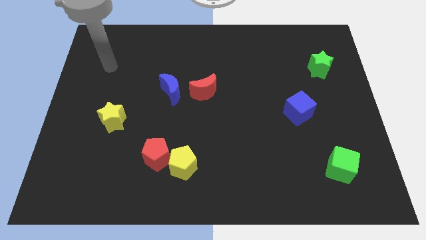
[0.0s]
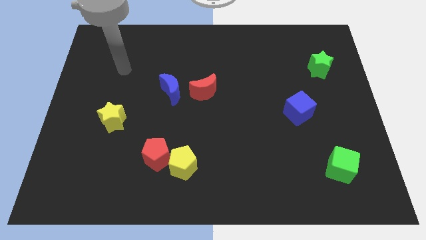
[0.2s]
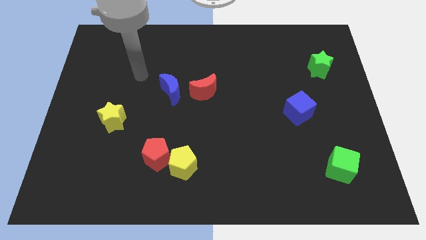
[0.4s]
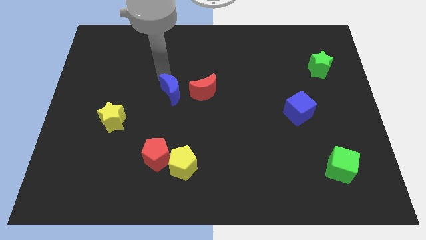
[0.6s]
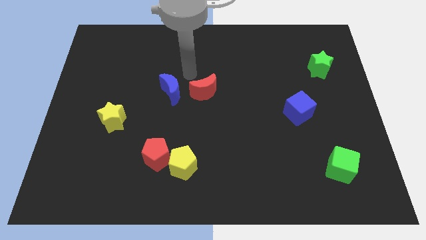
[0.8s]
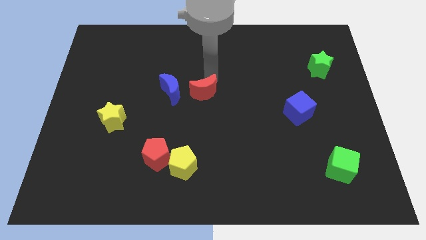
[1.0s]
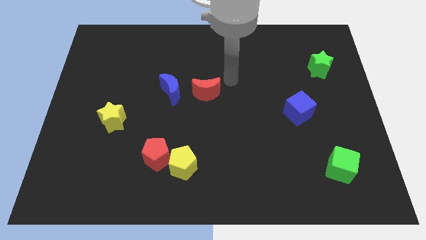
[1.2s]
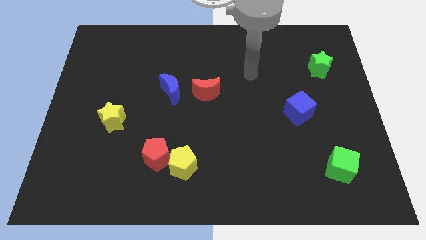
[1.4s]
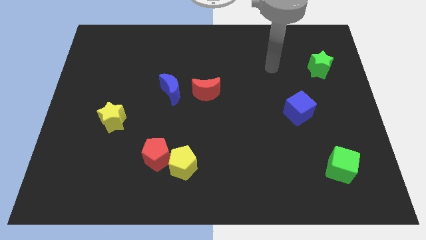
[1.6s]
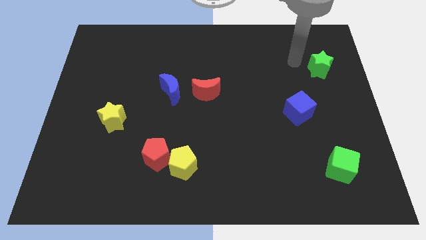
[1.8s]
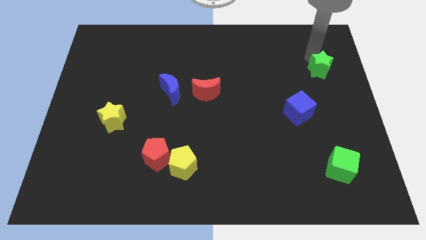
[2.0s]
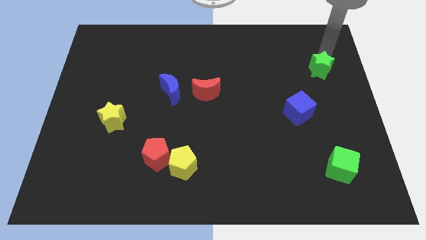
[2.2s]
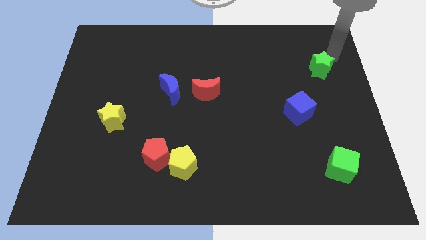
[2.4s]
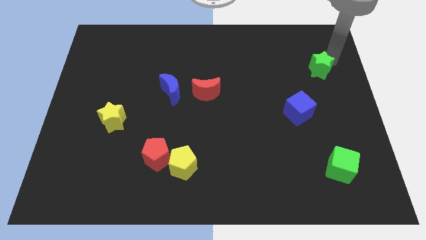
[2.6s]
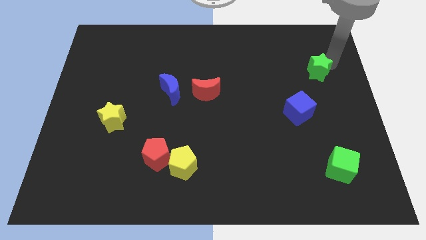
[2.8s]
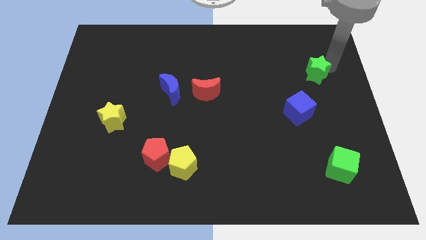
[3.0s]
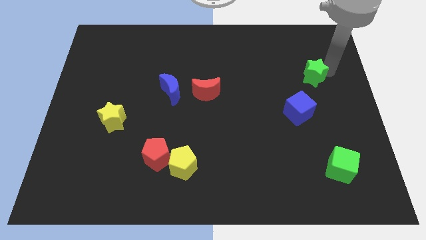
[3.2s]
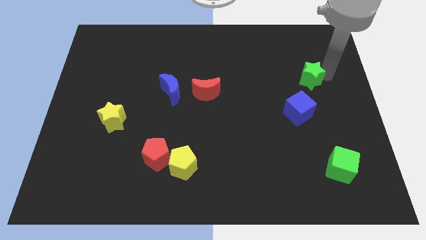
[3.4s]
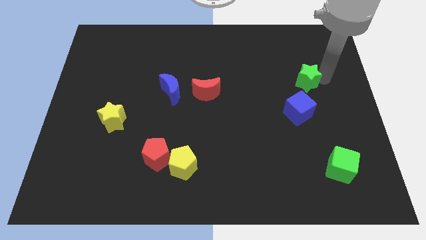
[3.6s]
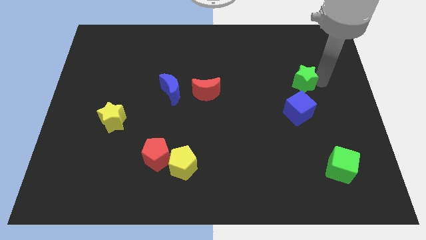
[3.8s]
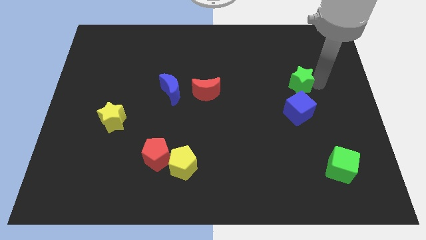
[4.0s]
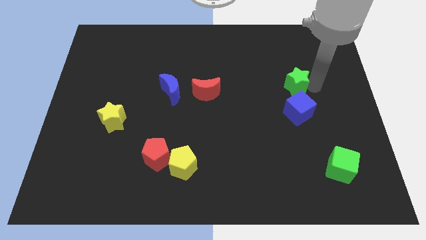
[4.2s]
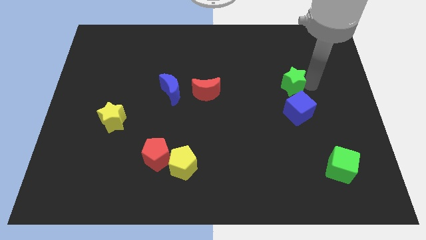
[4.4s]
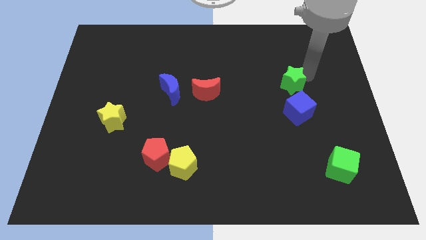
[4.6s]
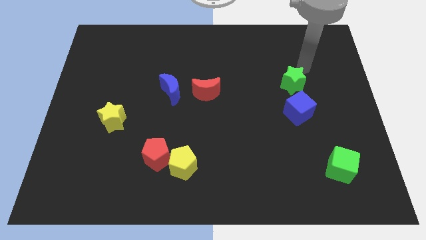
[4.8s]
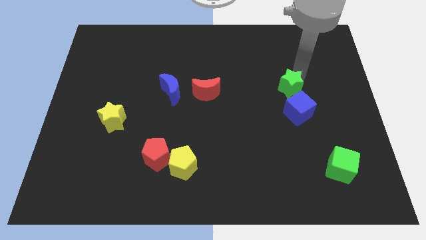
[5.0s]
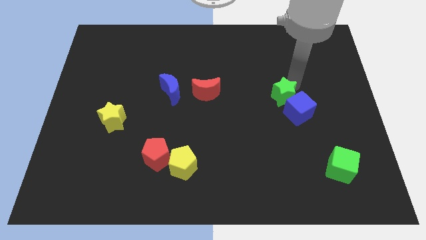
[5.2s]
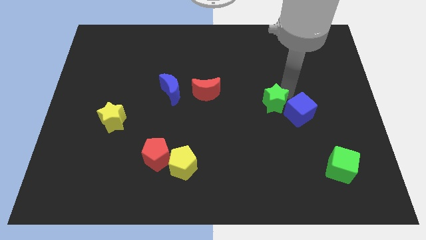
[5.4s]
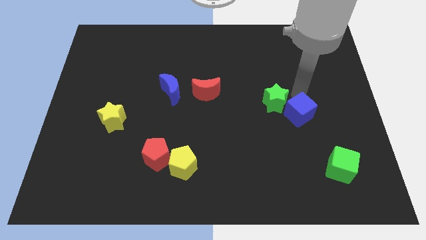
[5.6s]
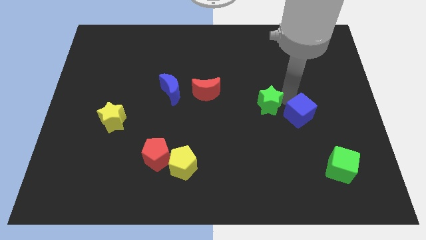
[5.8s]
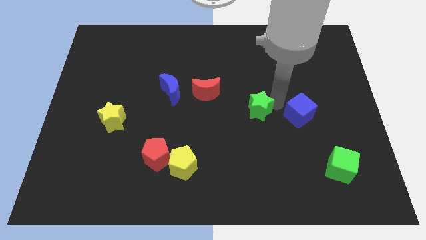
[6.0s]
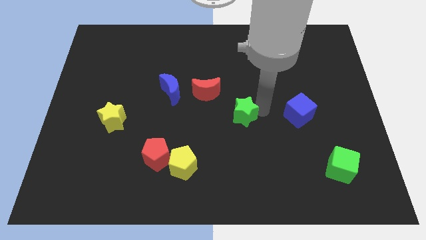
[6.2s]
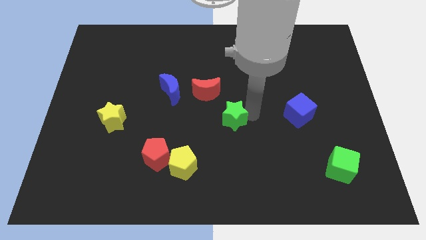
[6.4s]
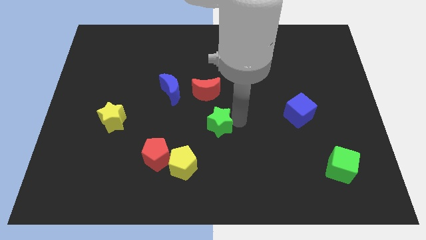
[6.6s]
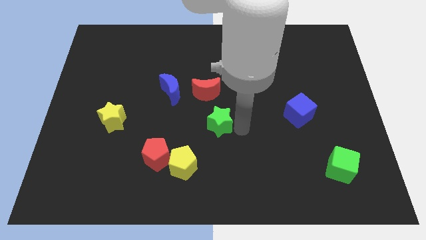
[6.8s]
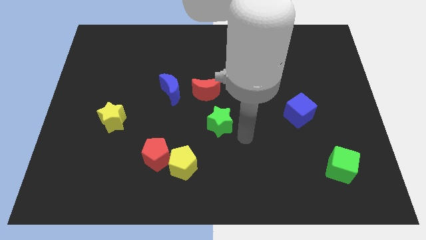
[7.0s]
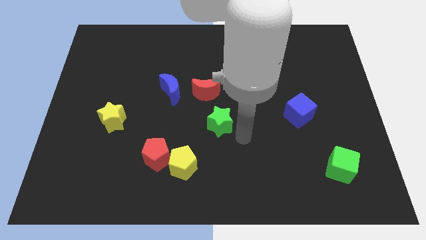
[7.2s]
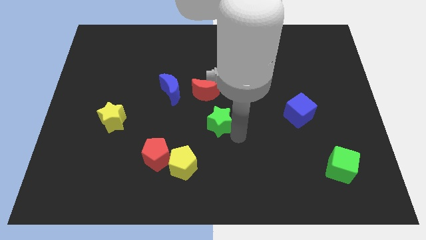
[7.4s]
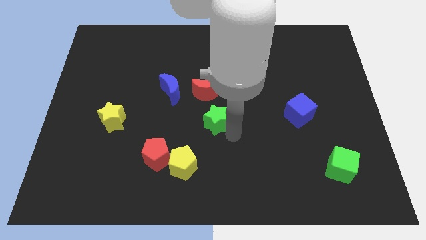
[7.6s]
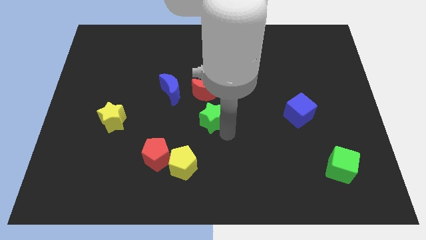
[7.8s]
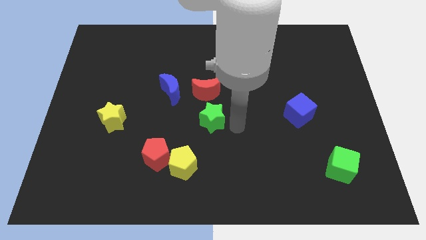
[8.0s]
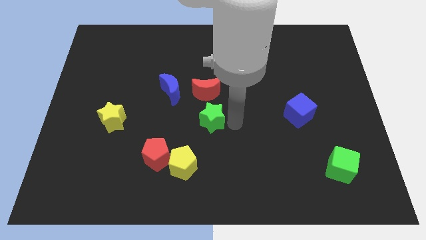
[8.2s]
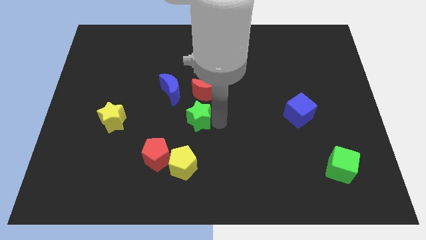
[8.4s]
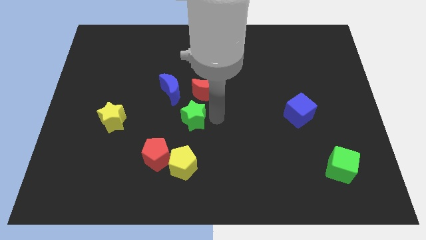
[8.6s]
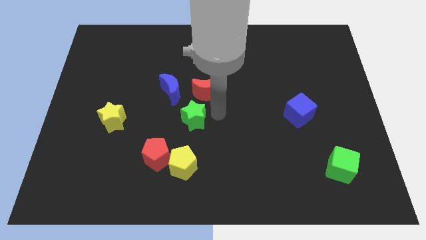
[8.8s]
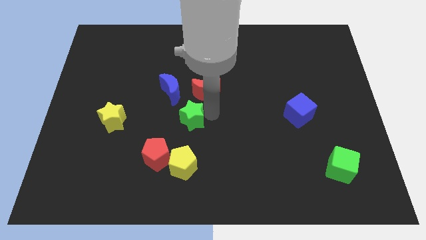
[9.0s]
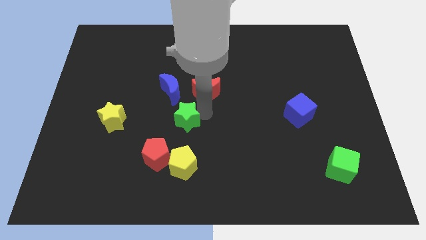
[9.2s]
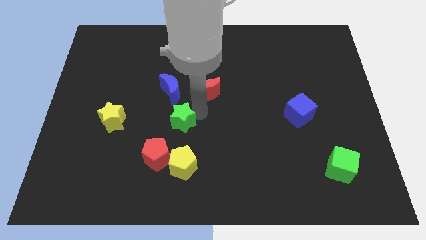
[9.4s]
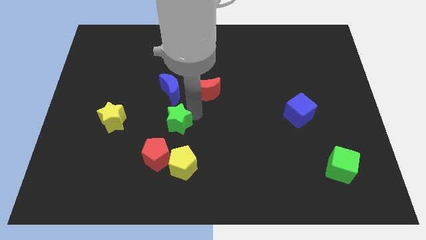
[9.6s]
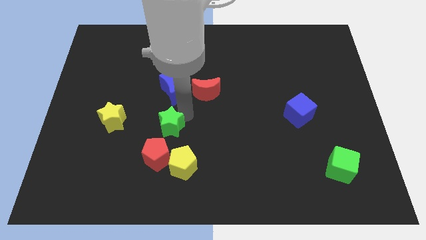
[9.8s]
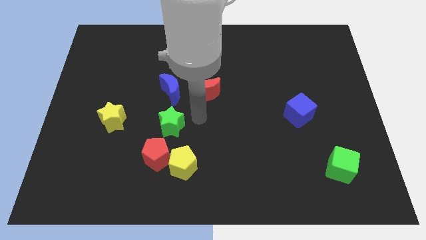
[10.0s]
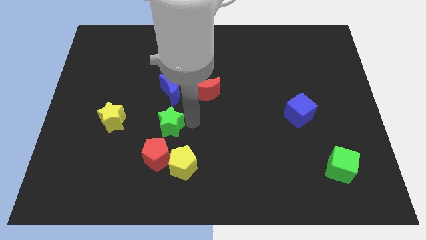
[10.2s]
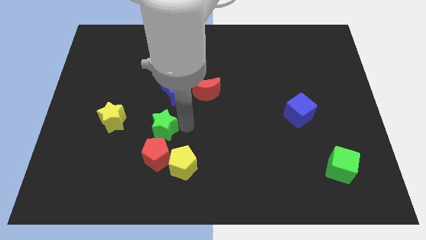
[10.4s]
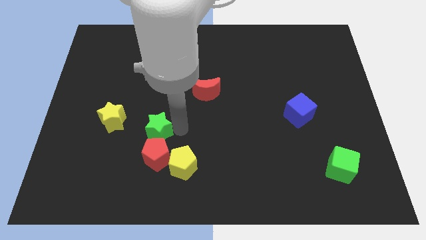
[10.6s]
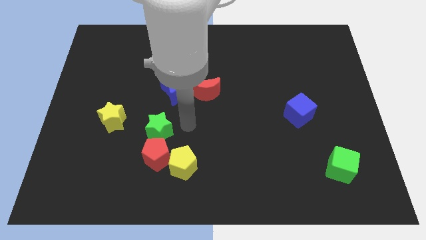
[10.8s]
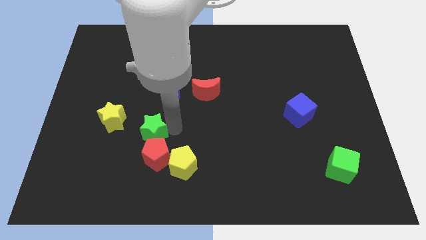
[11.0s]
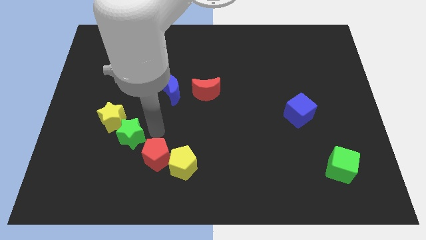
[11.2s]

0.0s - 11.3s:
put the green star to the bottom of the yellow star

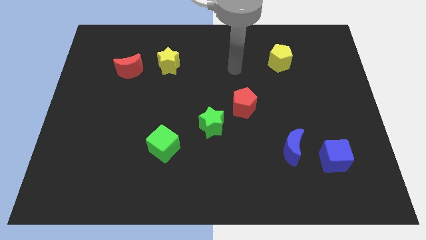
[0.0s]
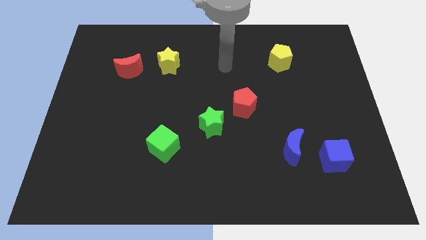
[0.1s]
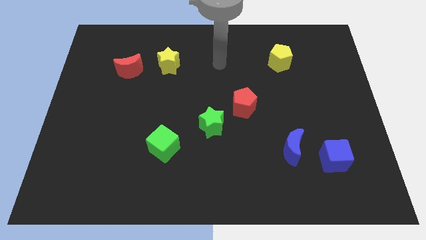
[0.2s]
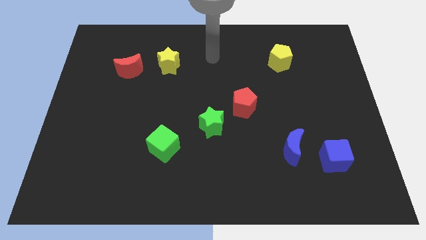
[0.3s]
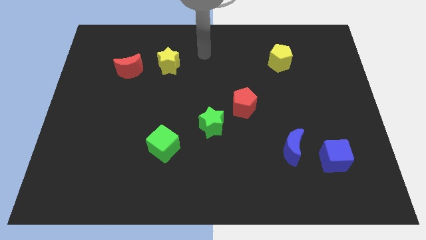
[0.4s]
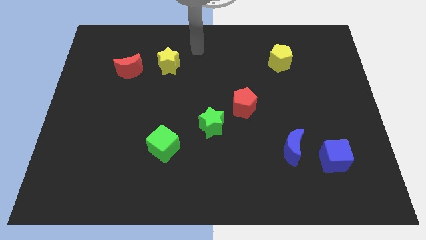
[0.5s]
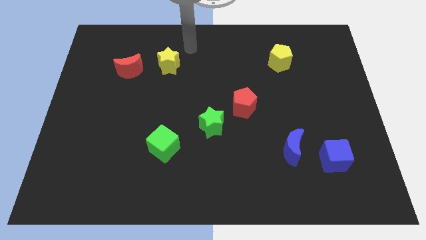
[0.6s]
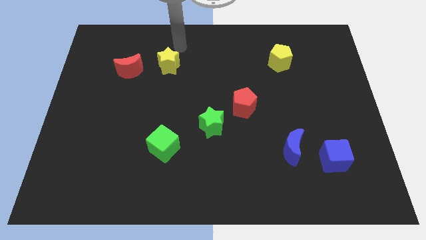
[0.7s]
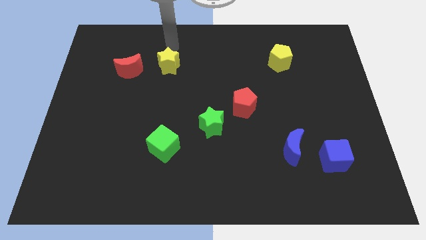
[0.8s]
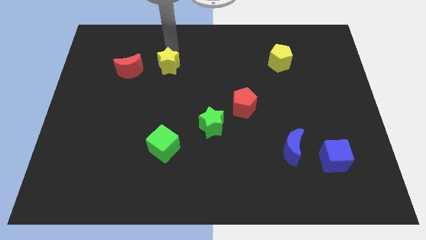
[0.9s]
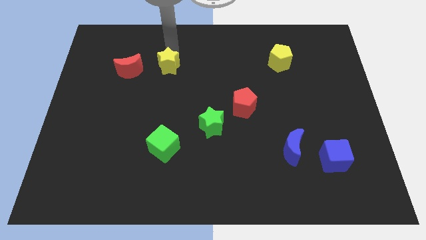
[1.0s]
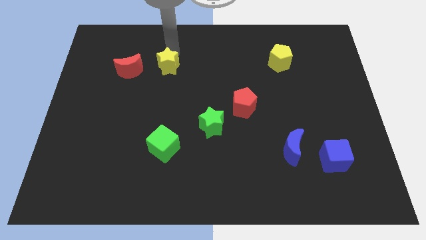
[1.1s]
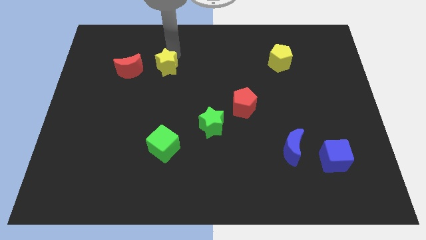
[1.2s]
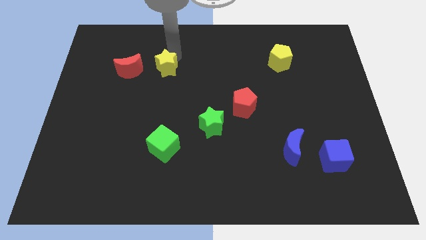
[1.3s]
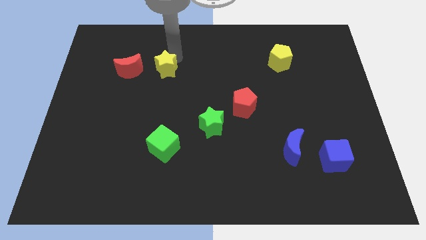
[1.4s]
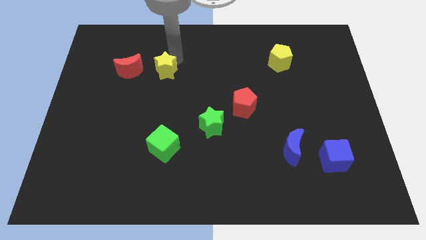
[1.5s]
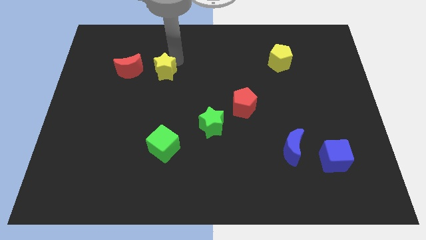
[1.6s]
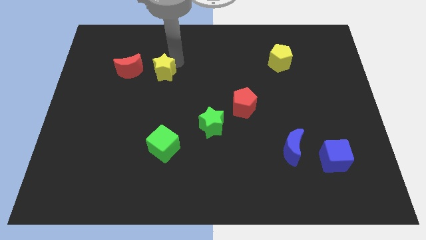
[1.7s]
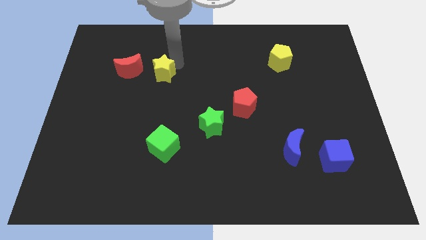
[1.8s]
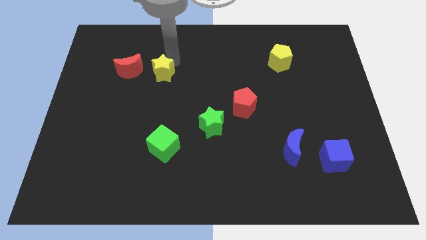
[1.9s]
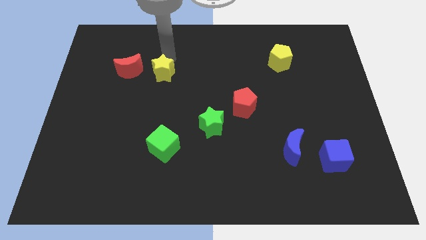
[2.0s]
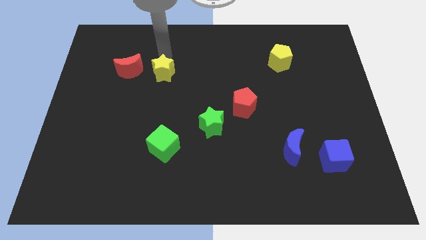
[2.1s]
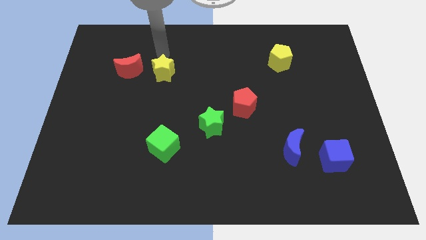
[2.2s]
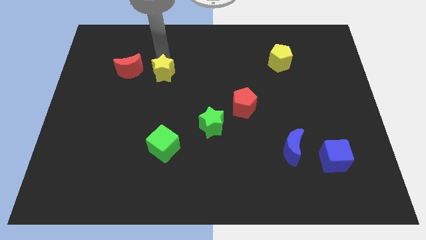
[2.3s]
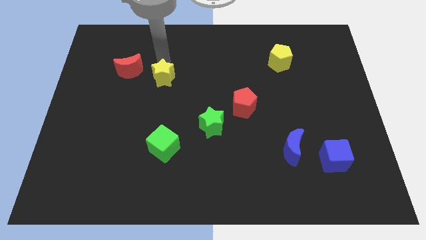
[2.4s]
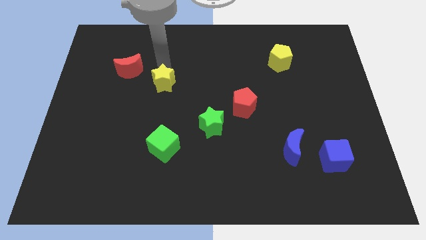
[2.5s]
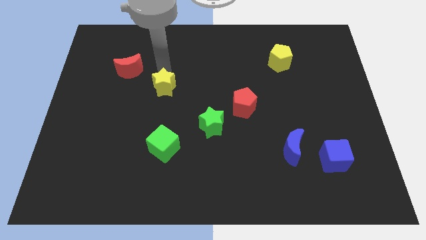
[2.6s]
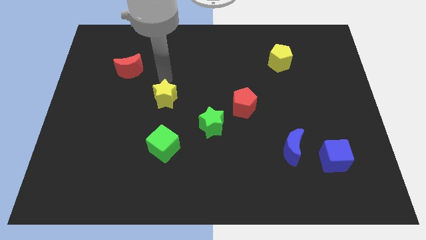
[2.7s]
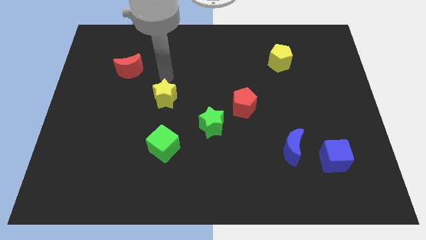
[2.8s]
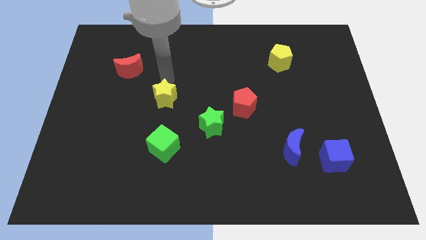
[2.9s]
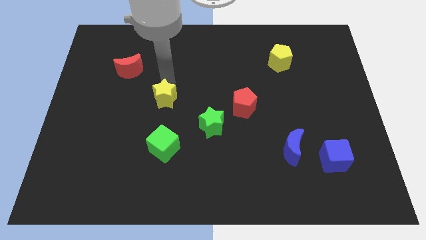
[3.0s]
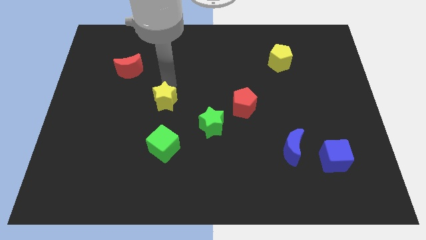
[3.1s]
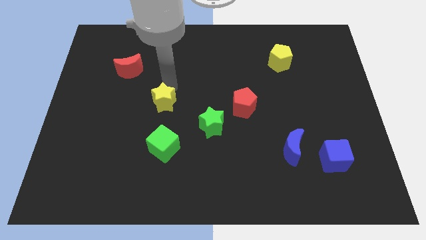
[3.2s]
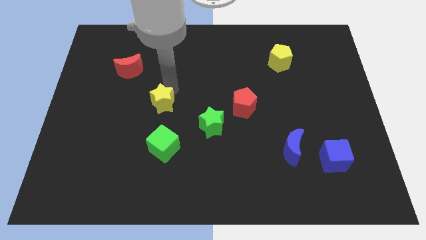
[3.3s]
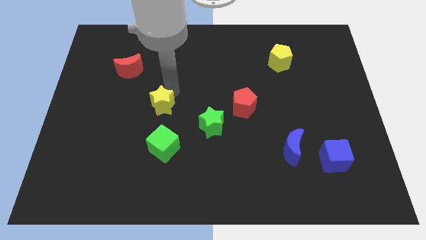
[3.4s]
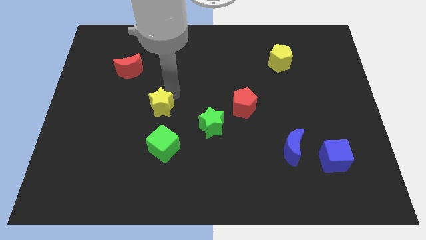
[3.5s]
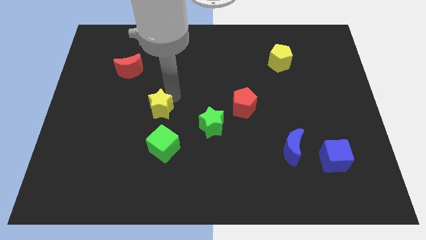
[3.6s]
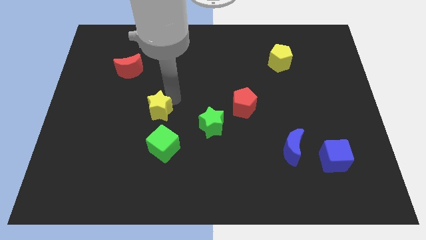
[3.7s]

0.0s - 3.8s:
put the yellow star left of the green star
